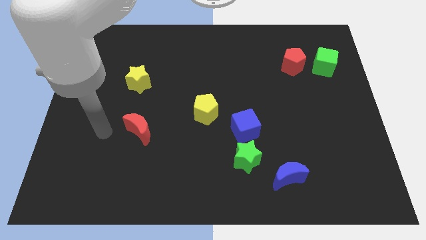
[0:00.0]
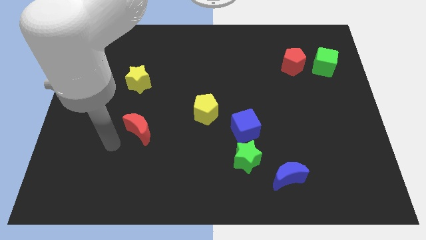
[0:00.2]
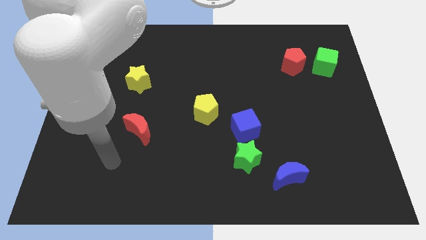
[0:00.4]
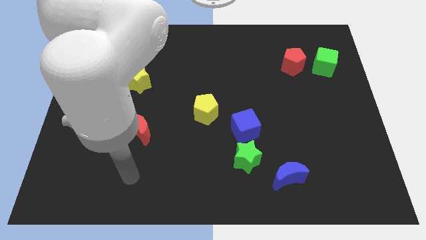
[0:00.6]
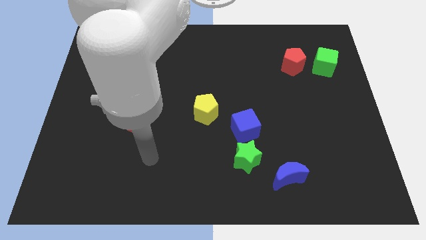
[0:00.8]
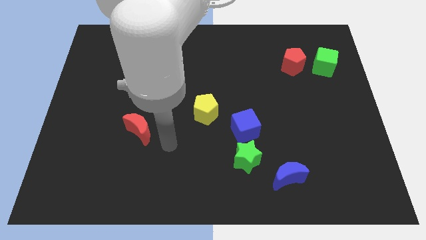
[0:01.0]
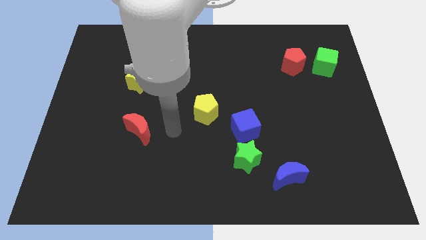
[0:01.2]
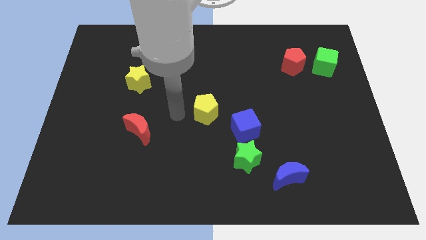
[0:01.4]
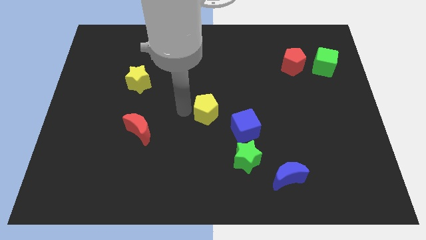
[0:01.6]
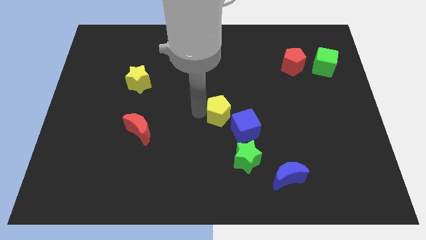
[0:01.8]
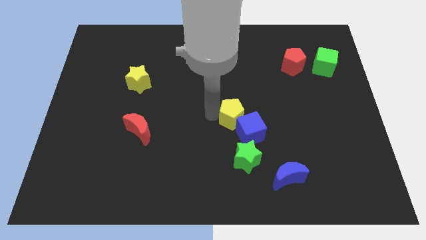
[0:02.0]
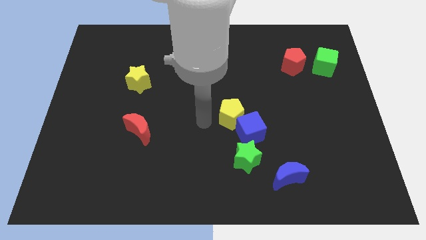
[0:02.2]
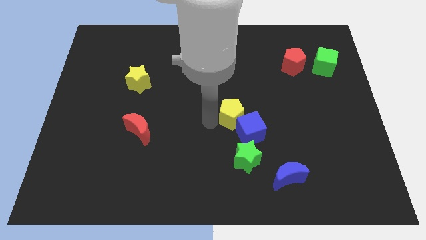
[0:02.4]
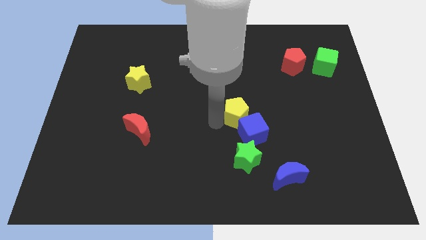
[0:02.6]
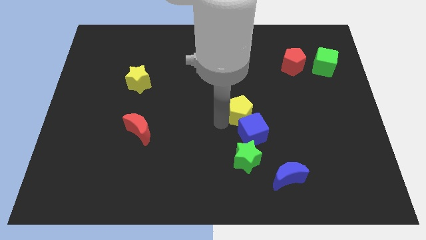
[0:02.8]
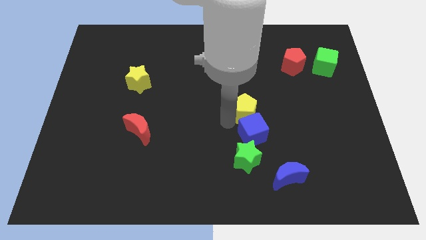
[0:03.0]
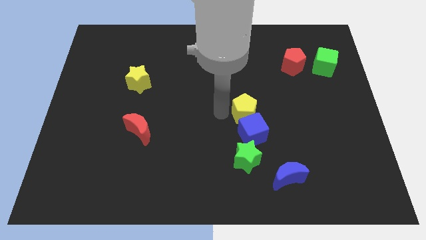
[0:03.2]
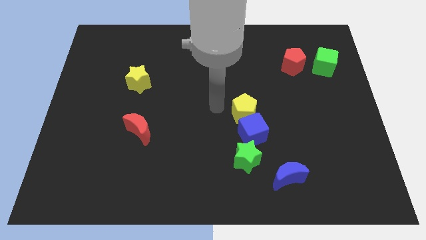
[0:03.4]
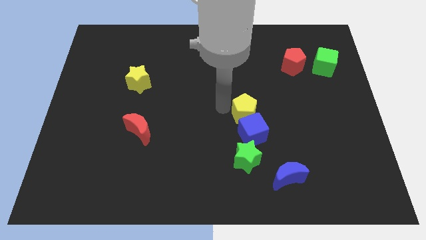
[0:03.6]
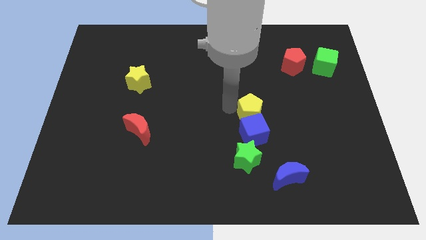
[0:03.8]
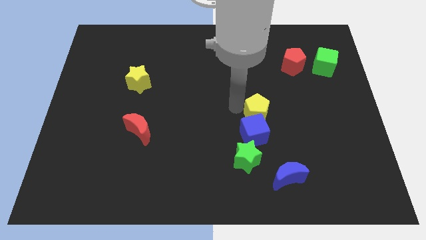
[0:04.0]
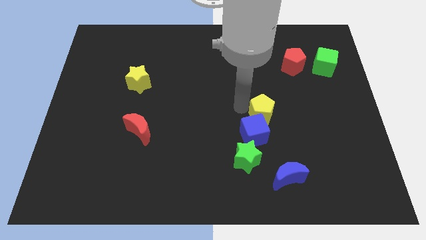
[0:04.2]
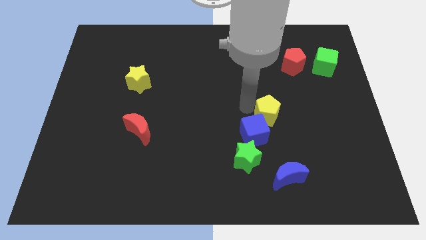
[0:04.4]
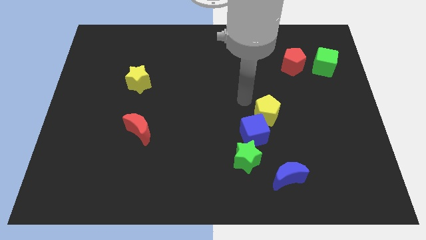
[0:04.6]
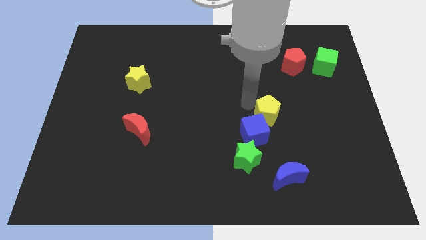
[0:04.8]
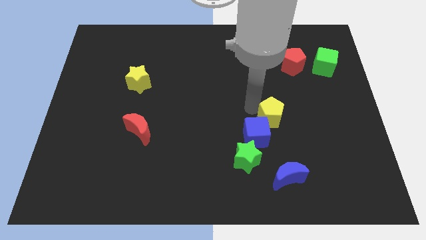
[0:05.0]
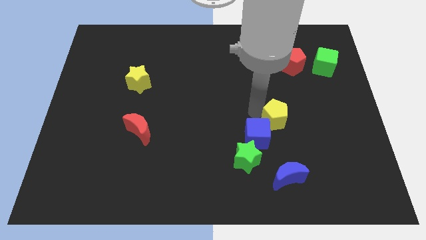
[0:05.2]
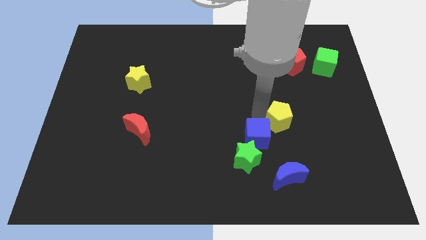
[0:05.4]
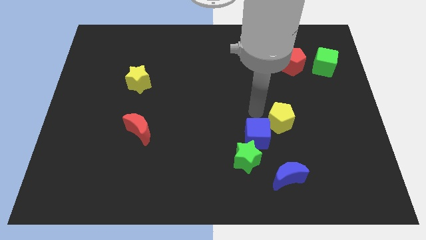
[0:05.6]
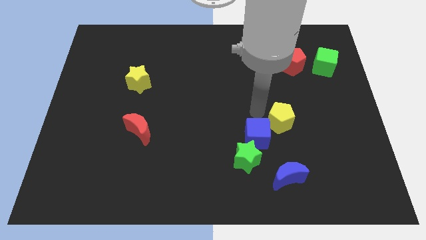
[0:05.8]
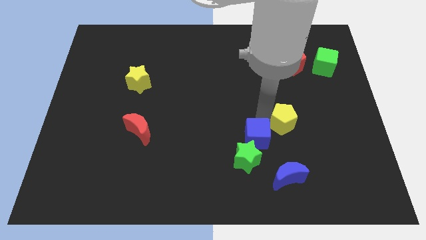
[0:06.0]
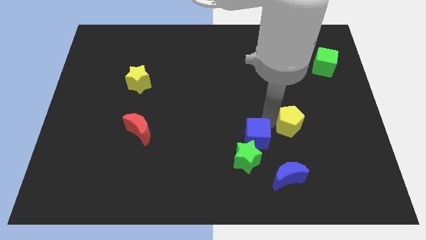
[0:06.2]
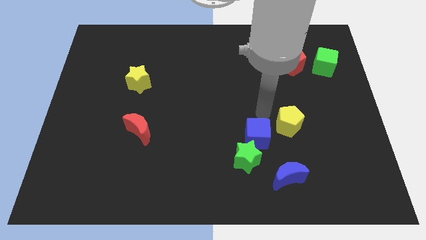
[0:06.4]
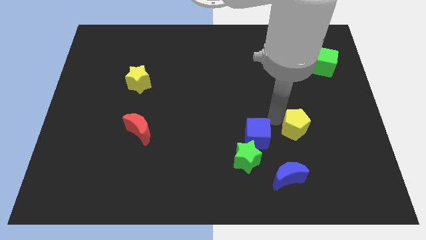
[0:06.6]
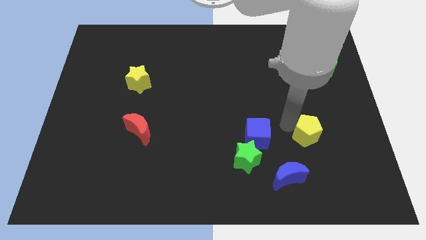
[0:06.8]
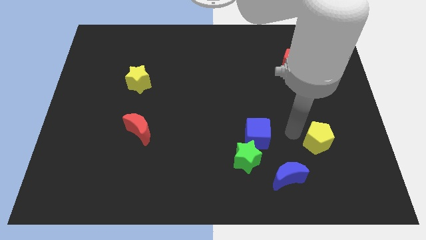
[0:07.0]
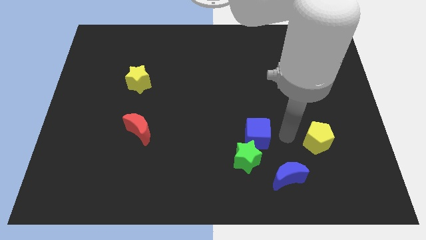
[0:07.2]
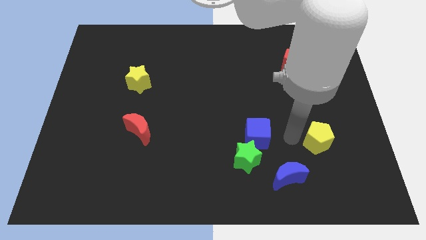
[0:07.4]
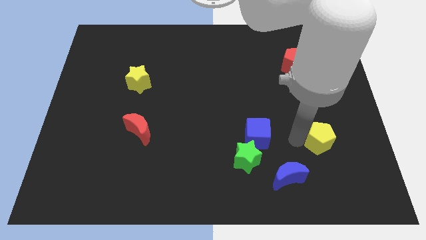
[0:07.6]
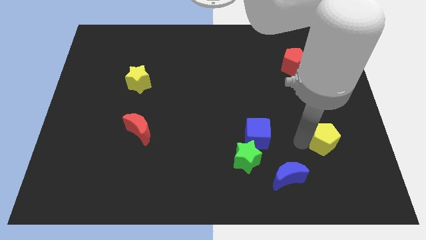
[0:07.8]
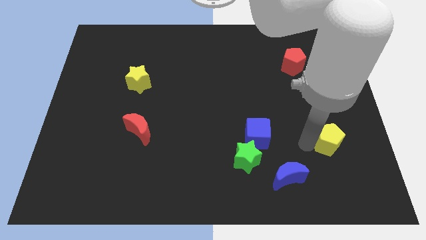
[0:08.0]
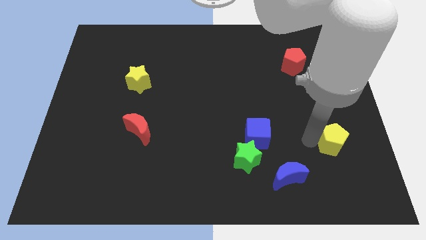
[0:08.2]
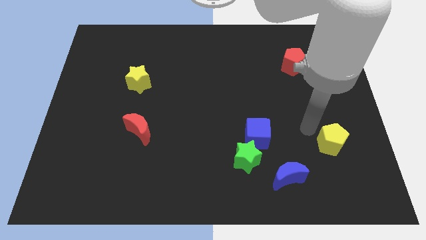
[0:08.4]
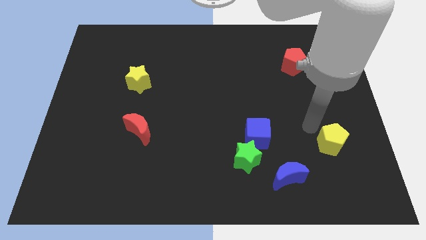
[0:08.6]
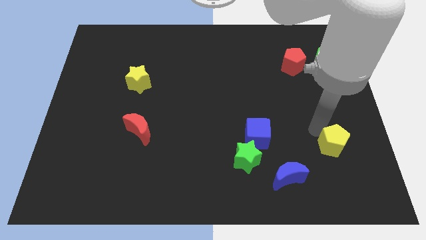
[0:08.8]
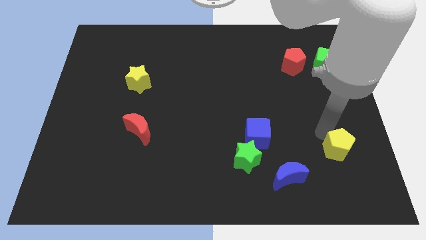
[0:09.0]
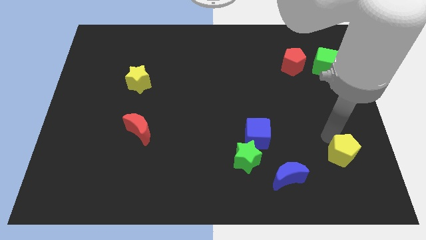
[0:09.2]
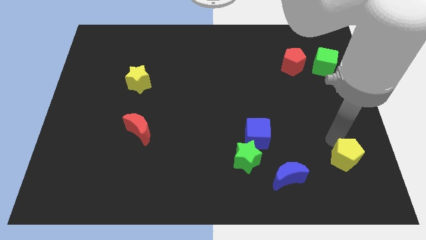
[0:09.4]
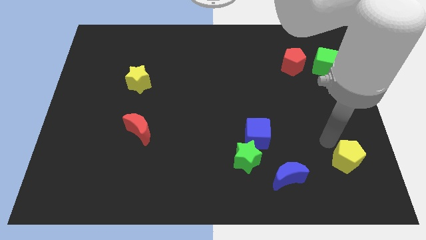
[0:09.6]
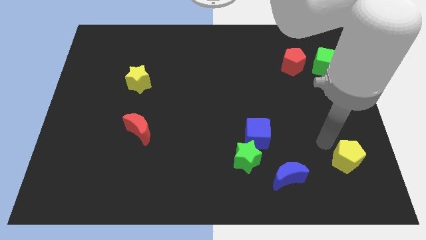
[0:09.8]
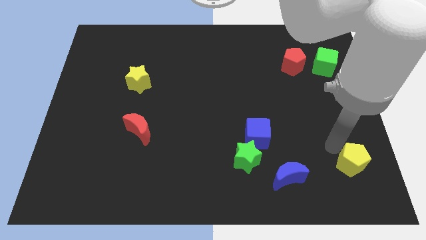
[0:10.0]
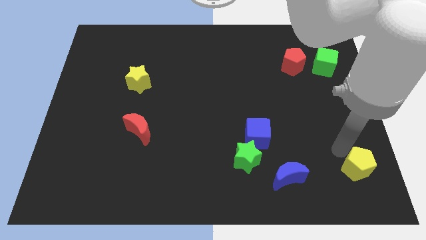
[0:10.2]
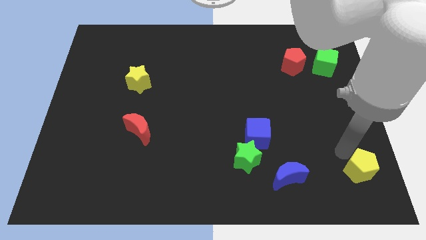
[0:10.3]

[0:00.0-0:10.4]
slide the yellow pentagon to the bottom right of the board

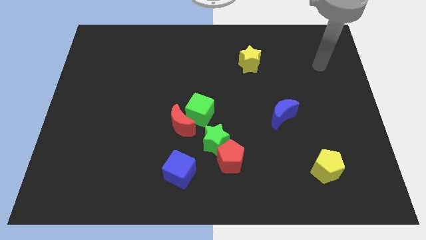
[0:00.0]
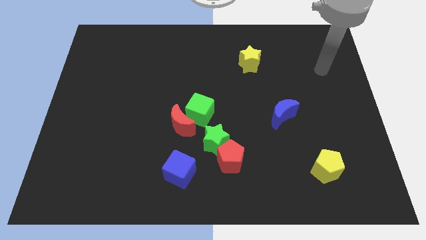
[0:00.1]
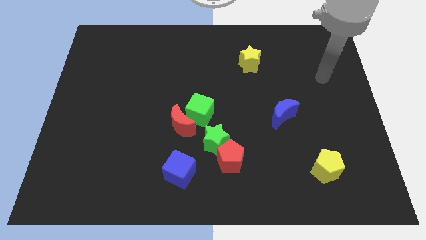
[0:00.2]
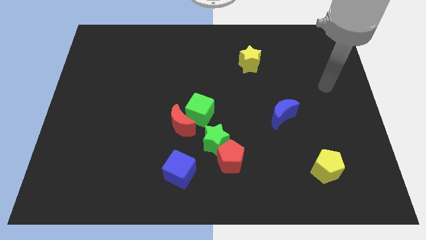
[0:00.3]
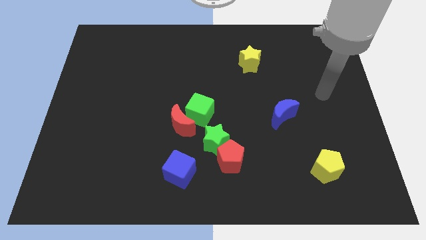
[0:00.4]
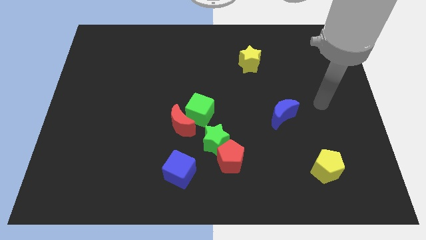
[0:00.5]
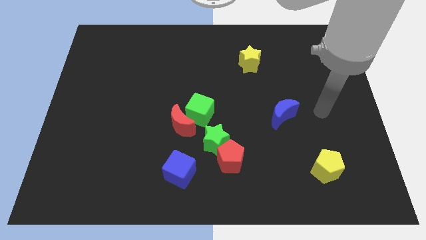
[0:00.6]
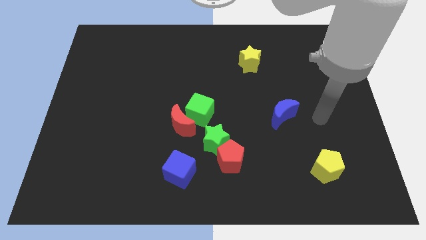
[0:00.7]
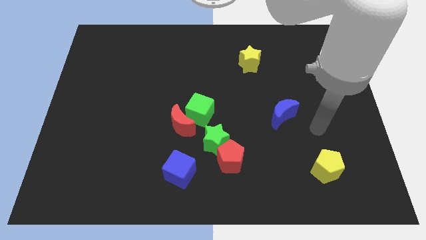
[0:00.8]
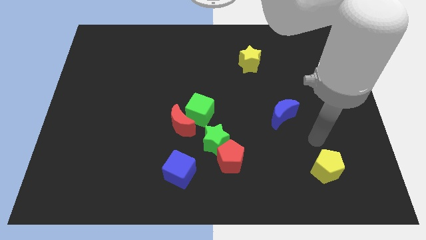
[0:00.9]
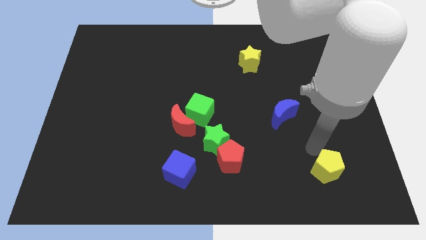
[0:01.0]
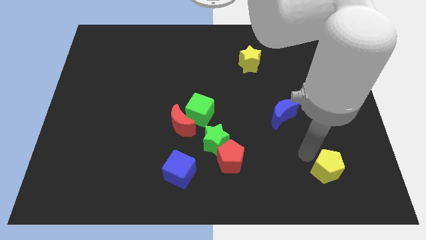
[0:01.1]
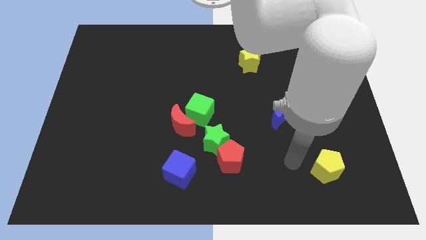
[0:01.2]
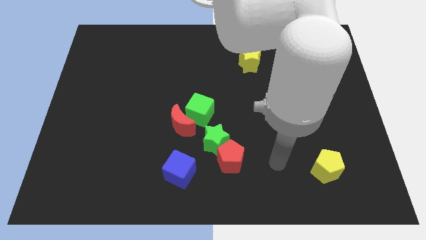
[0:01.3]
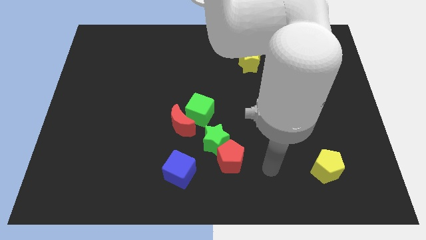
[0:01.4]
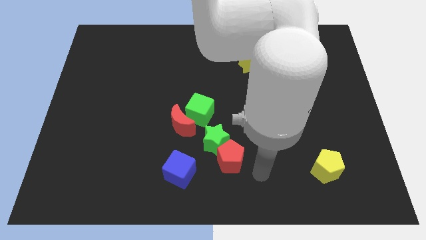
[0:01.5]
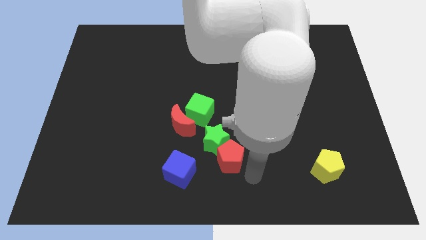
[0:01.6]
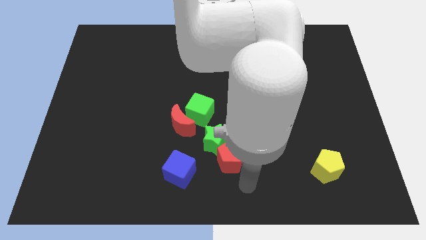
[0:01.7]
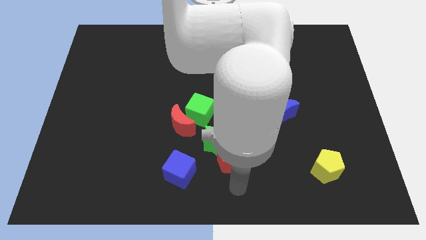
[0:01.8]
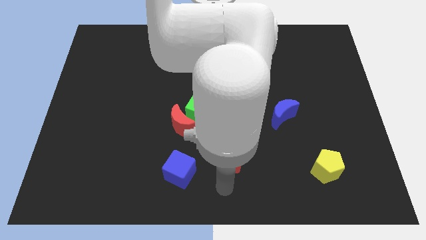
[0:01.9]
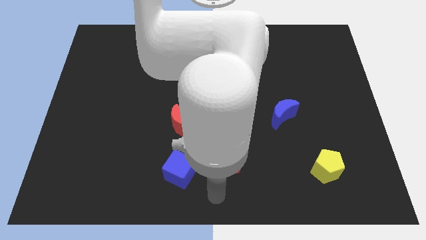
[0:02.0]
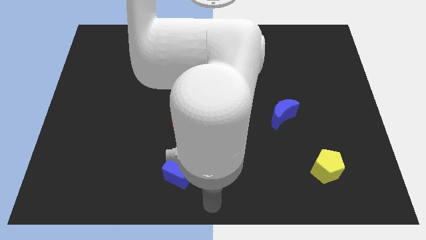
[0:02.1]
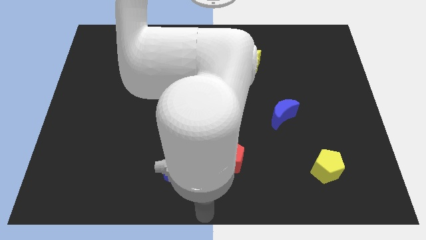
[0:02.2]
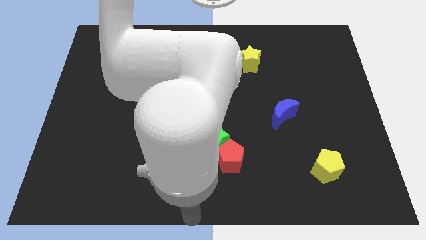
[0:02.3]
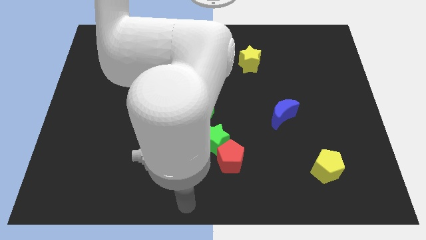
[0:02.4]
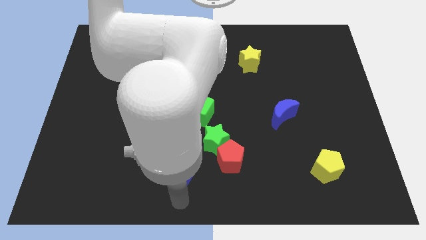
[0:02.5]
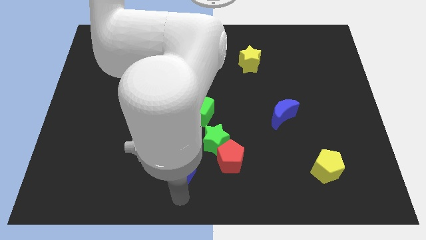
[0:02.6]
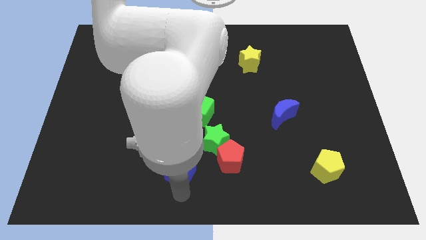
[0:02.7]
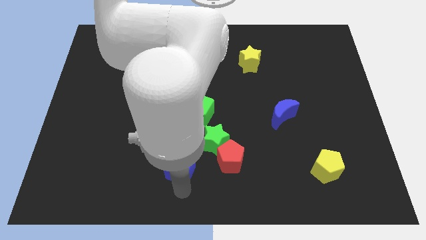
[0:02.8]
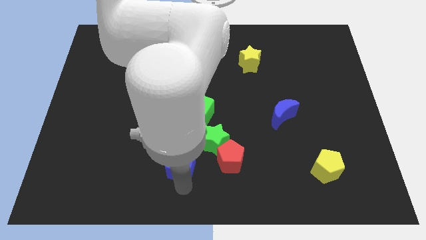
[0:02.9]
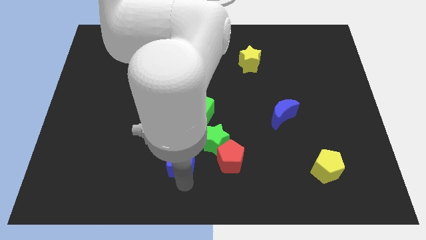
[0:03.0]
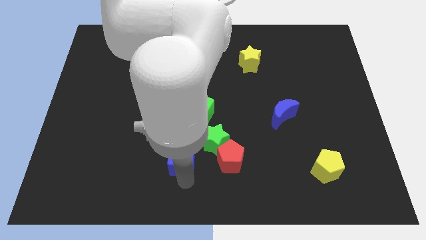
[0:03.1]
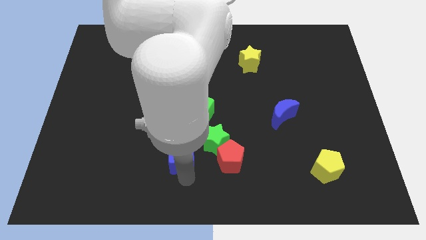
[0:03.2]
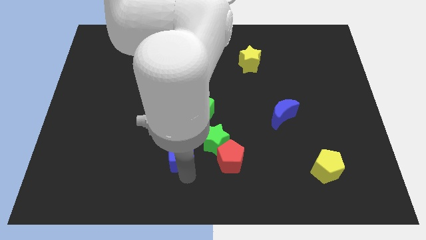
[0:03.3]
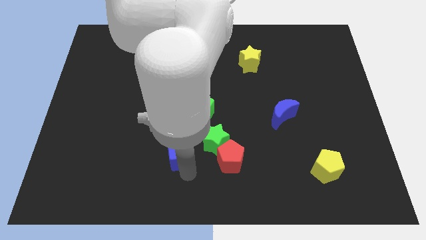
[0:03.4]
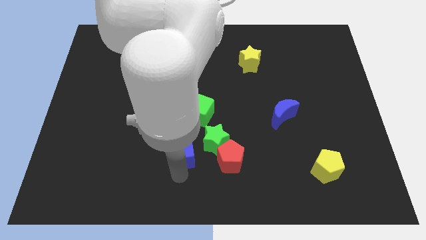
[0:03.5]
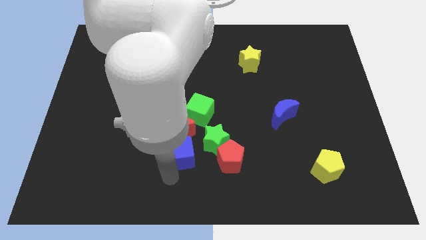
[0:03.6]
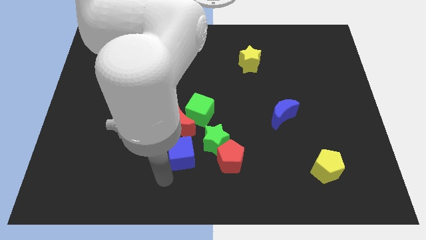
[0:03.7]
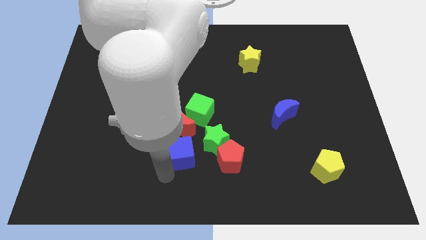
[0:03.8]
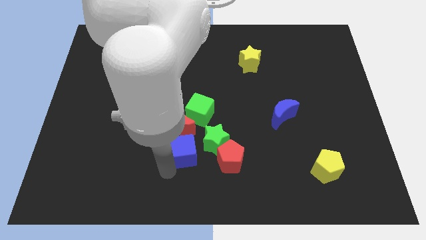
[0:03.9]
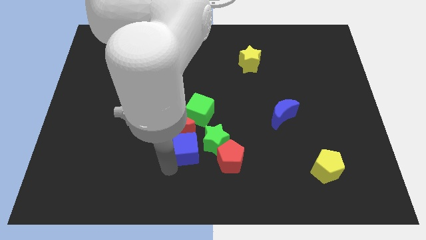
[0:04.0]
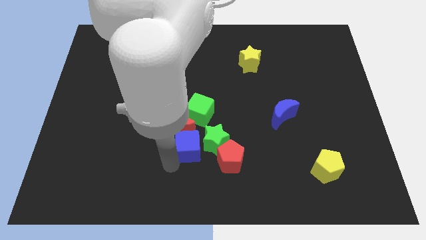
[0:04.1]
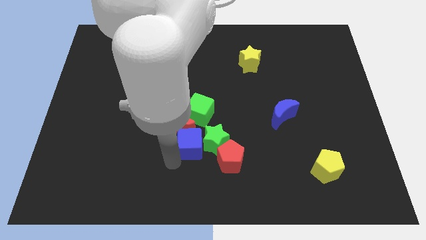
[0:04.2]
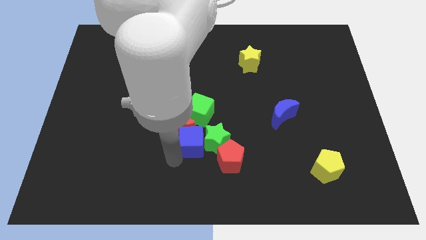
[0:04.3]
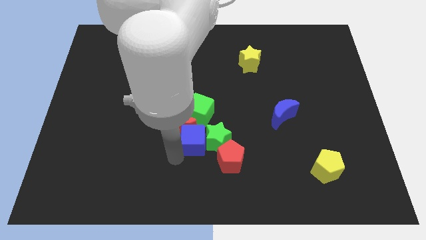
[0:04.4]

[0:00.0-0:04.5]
put the blue cube to the center
